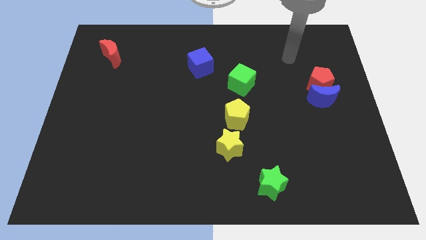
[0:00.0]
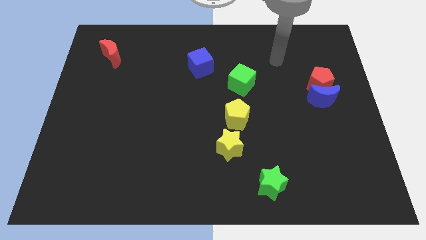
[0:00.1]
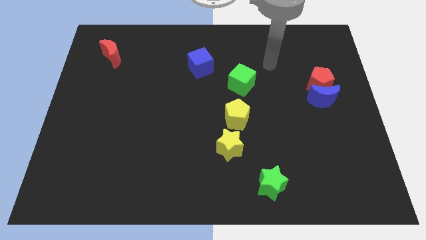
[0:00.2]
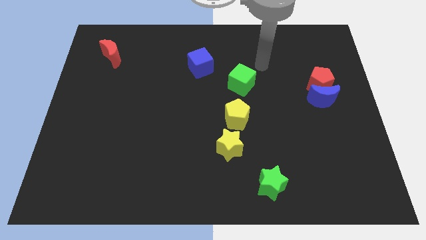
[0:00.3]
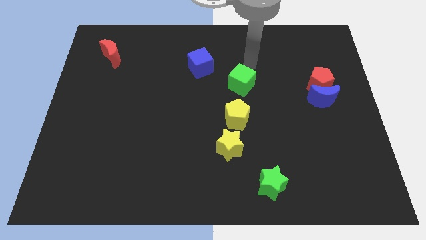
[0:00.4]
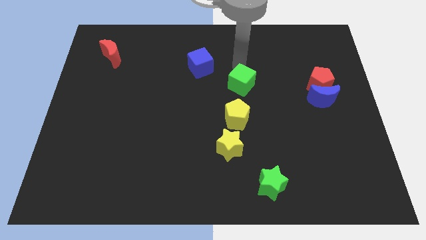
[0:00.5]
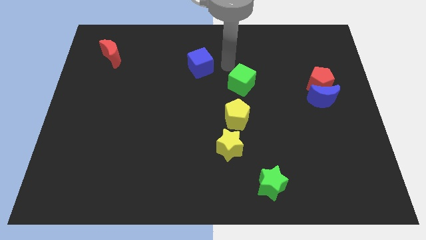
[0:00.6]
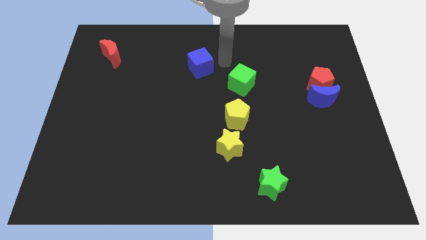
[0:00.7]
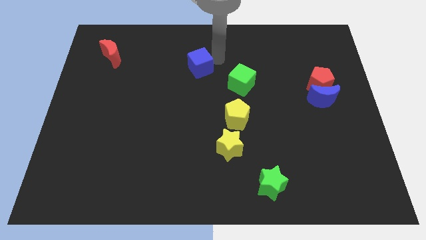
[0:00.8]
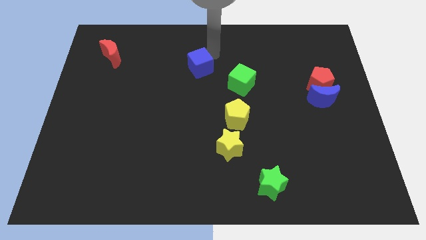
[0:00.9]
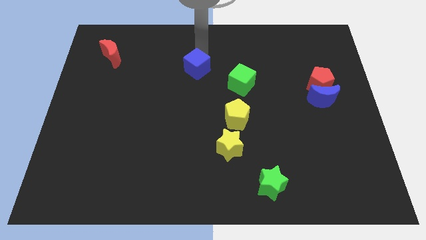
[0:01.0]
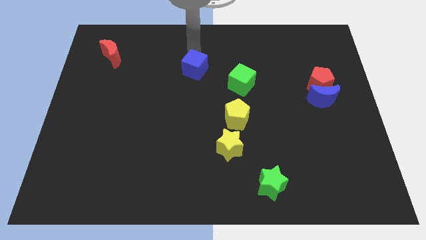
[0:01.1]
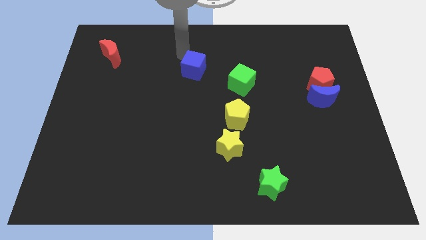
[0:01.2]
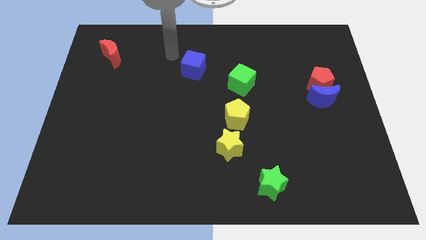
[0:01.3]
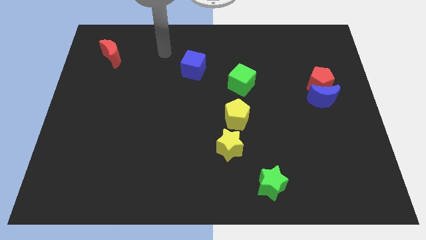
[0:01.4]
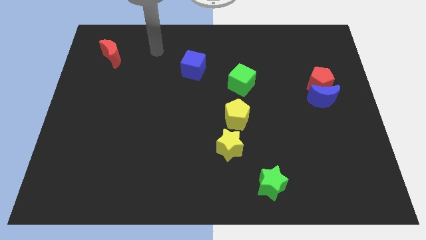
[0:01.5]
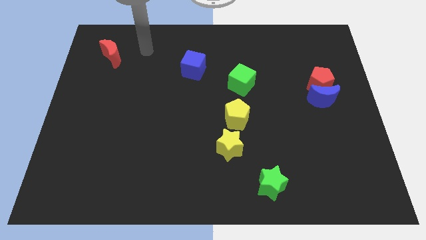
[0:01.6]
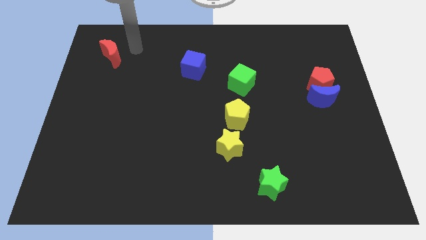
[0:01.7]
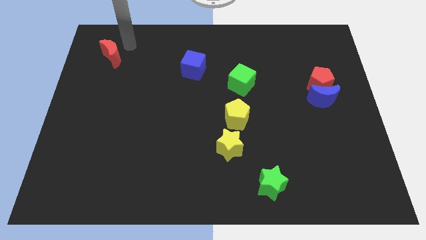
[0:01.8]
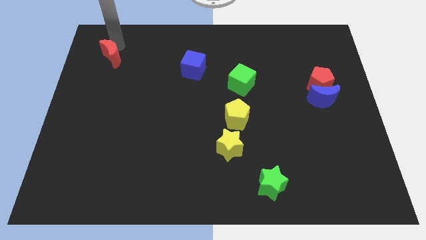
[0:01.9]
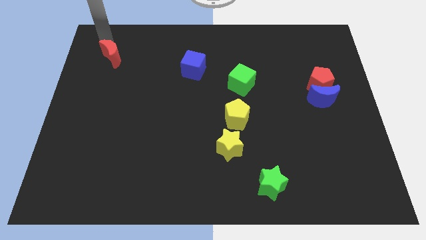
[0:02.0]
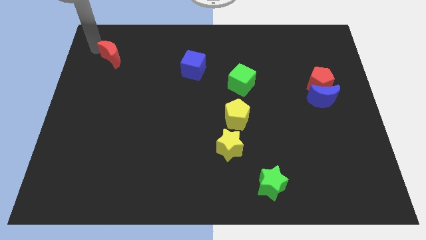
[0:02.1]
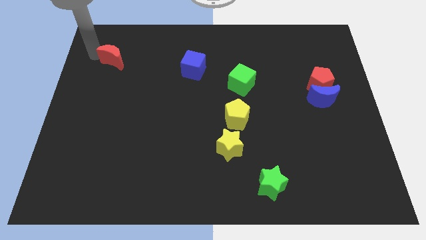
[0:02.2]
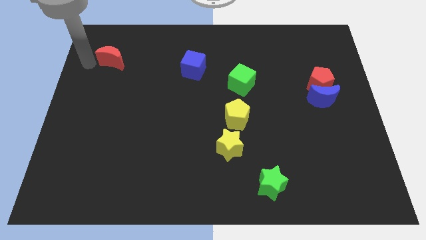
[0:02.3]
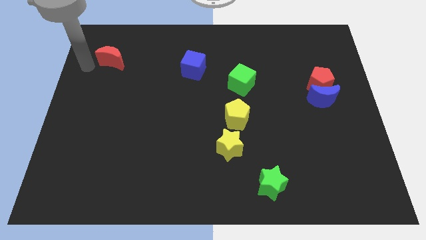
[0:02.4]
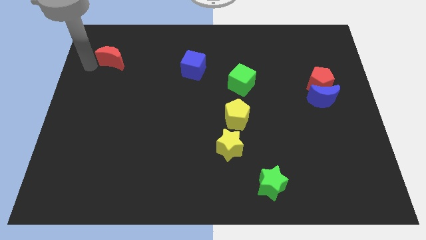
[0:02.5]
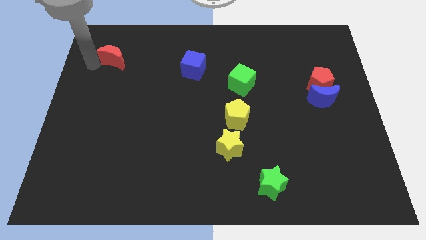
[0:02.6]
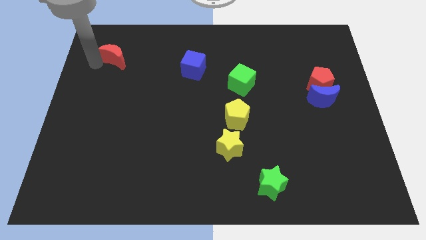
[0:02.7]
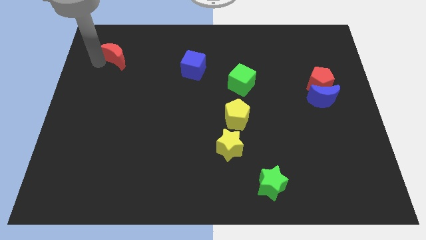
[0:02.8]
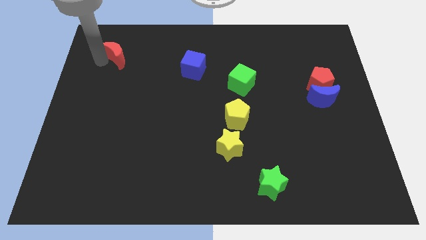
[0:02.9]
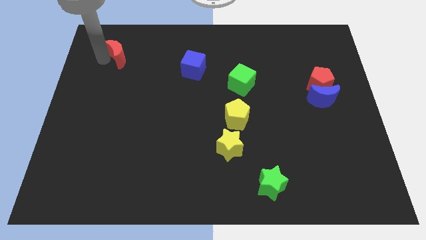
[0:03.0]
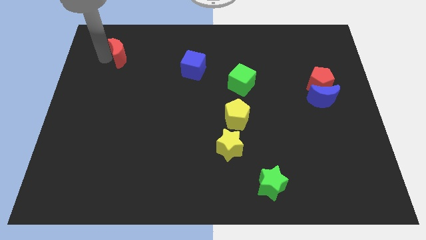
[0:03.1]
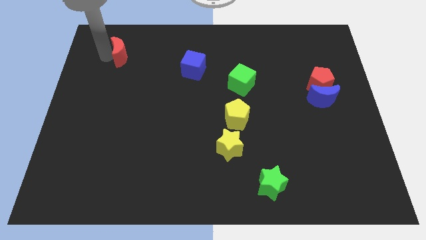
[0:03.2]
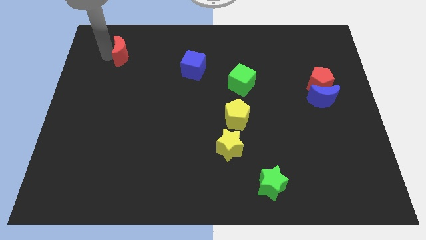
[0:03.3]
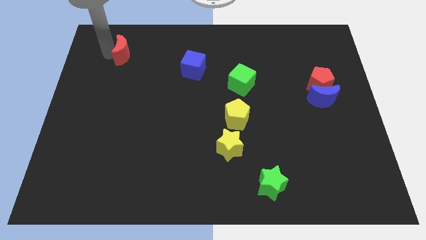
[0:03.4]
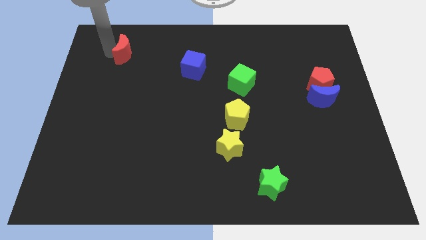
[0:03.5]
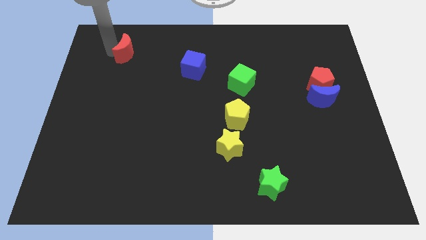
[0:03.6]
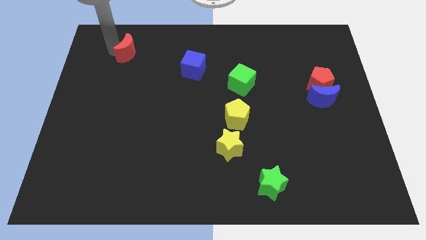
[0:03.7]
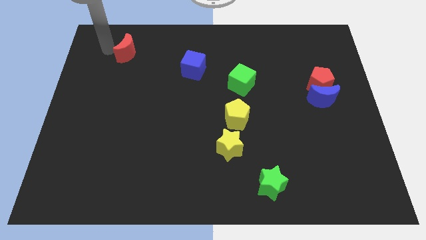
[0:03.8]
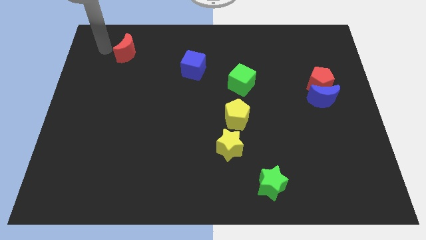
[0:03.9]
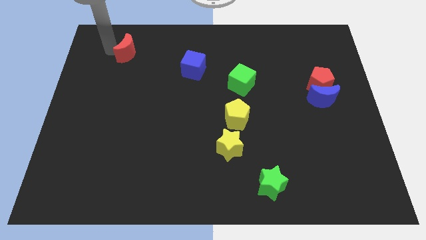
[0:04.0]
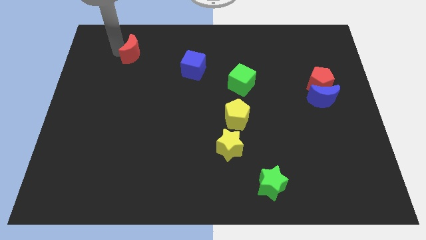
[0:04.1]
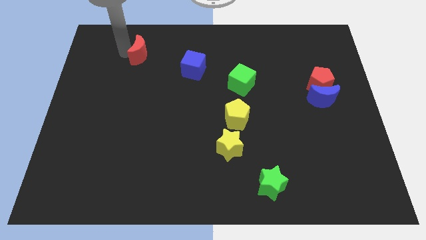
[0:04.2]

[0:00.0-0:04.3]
slightly push the red moon right

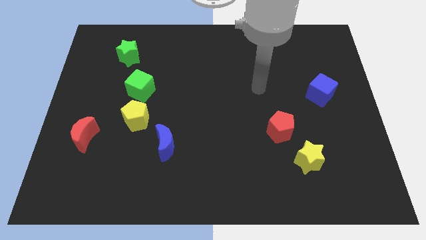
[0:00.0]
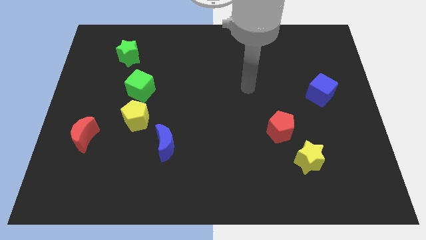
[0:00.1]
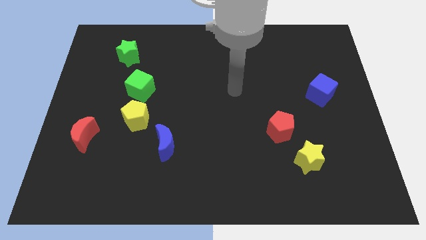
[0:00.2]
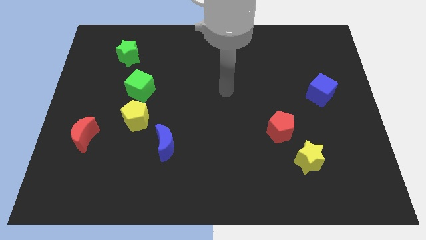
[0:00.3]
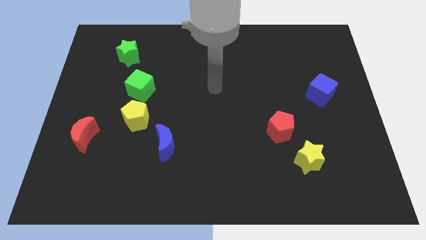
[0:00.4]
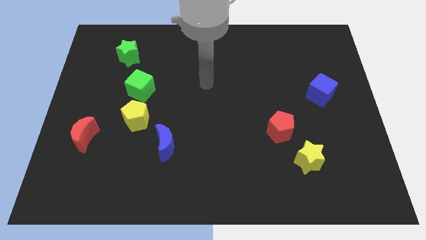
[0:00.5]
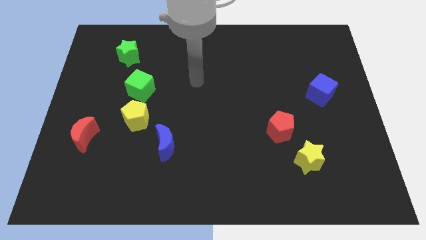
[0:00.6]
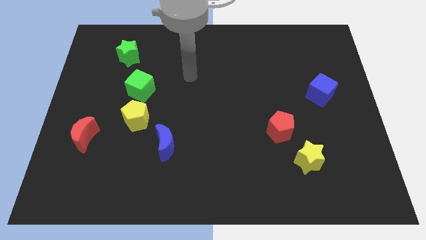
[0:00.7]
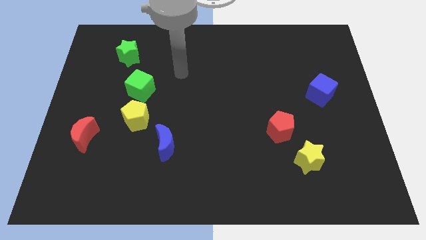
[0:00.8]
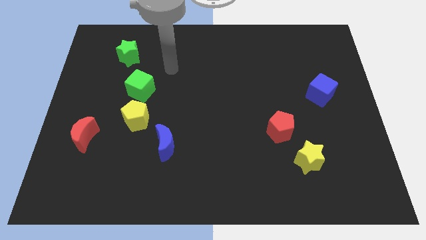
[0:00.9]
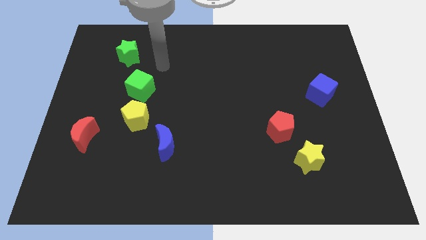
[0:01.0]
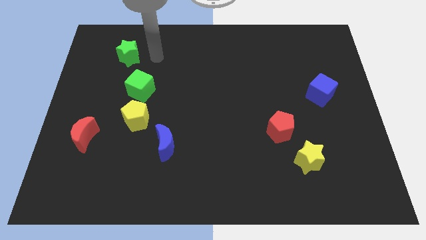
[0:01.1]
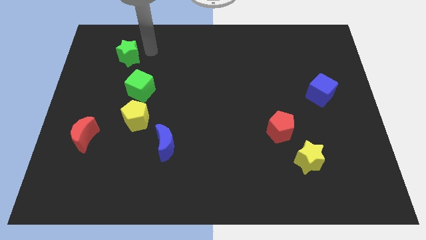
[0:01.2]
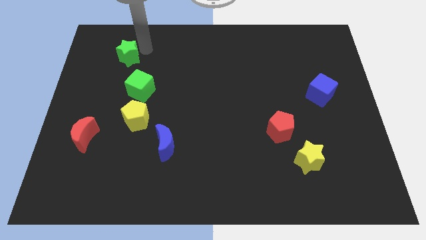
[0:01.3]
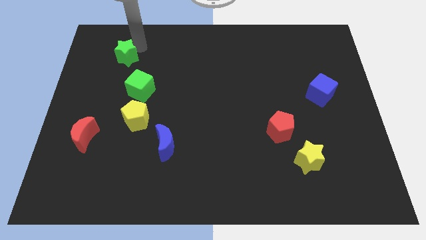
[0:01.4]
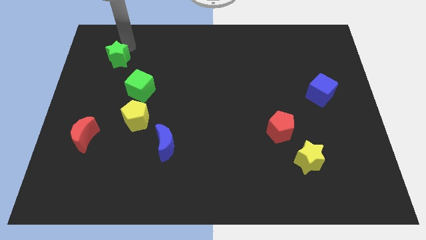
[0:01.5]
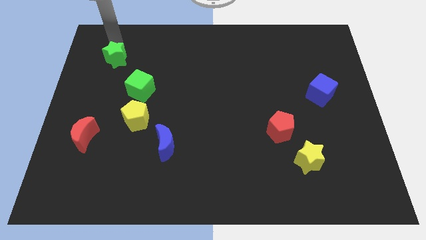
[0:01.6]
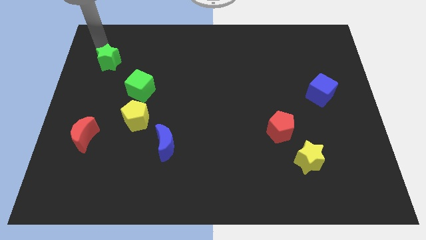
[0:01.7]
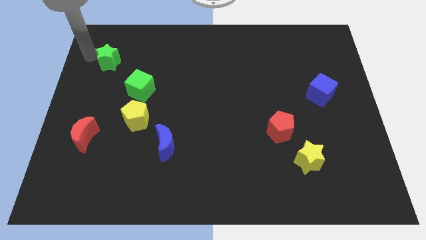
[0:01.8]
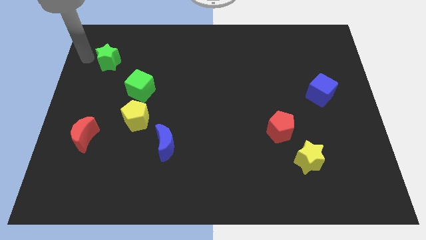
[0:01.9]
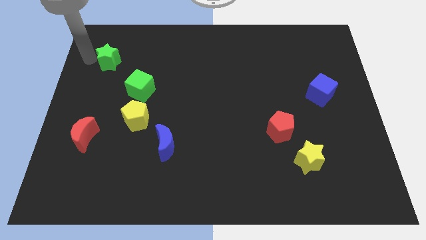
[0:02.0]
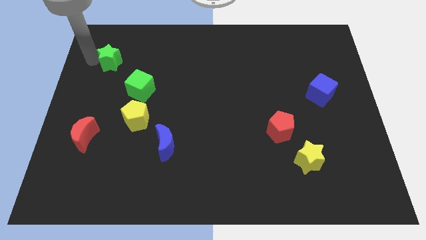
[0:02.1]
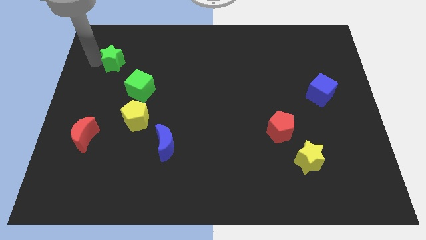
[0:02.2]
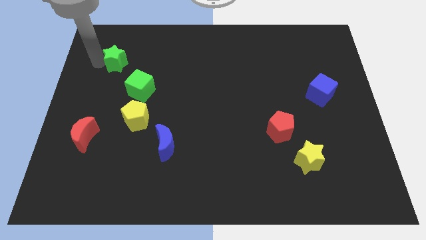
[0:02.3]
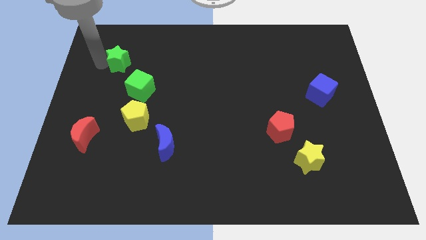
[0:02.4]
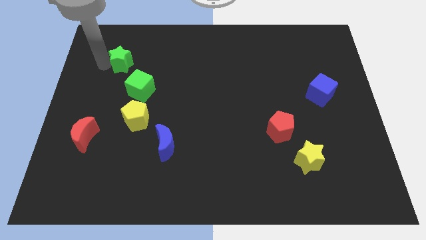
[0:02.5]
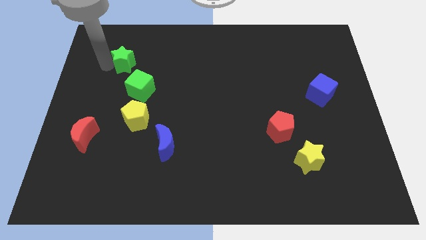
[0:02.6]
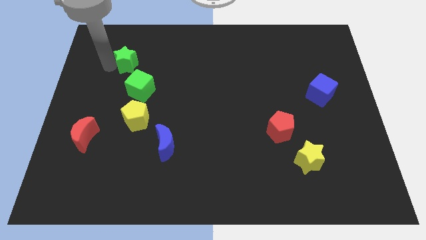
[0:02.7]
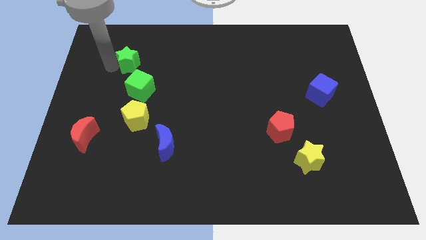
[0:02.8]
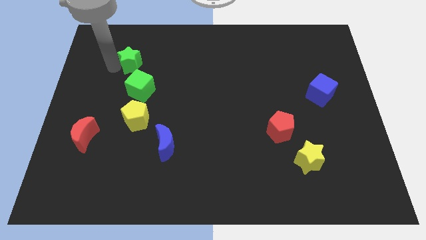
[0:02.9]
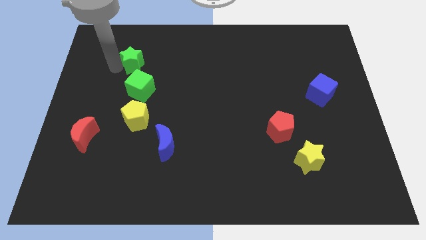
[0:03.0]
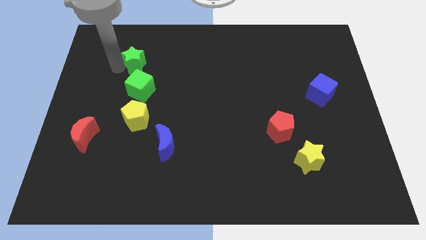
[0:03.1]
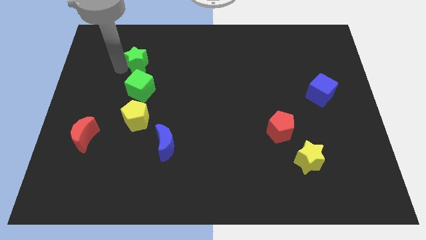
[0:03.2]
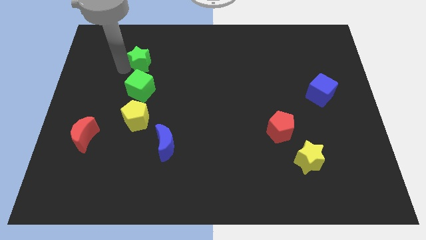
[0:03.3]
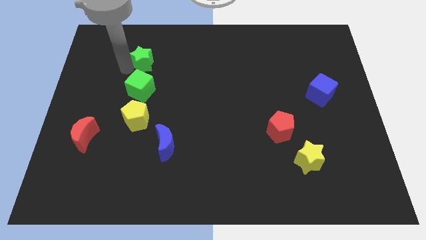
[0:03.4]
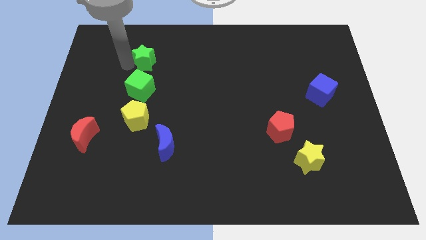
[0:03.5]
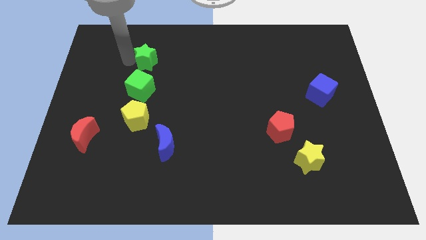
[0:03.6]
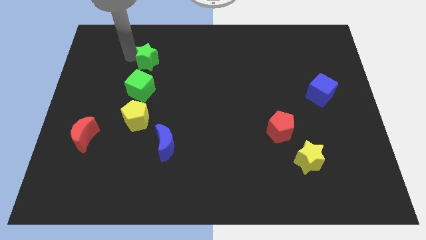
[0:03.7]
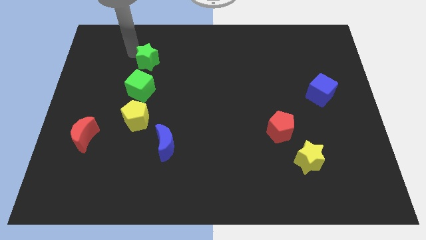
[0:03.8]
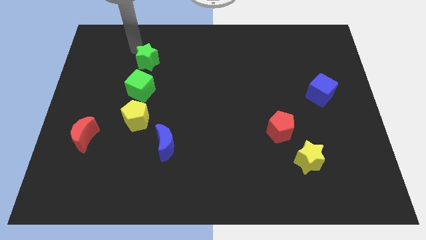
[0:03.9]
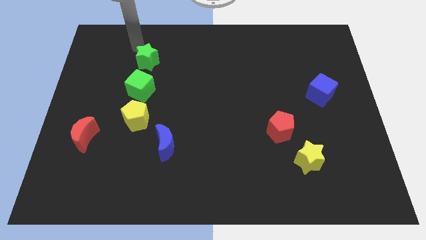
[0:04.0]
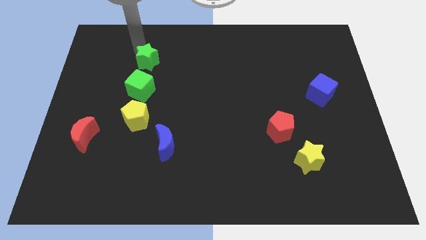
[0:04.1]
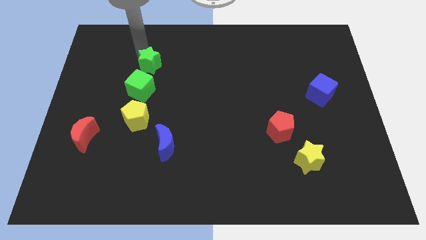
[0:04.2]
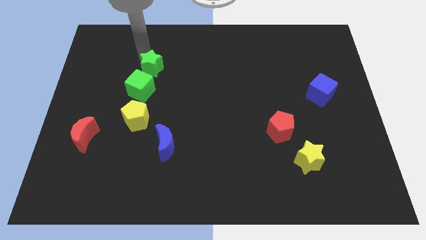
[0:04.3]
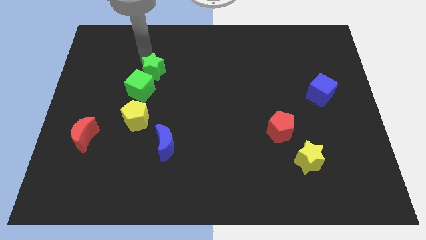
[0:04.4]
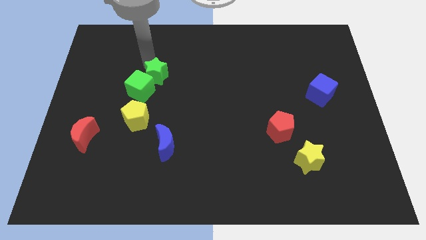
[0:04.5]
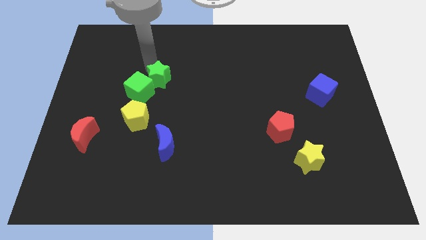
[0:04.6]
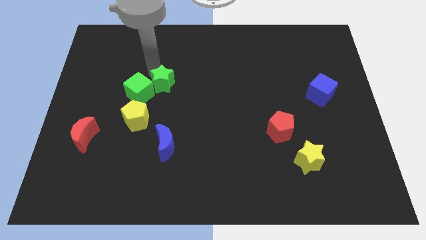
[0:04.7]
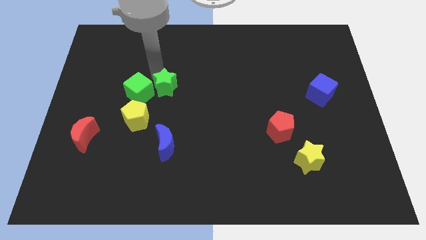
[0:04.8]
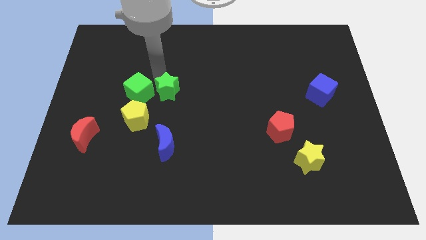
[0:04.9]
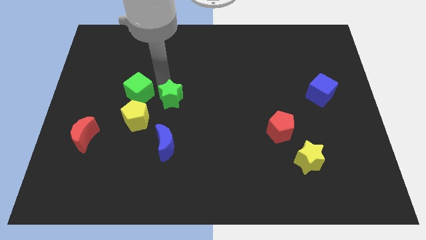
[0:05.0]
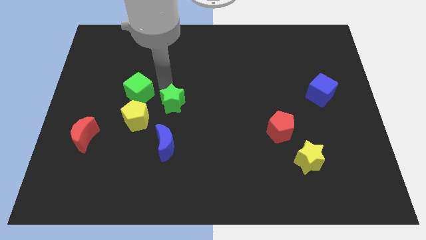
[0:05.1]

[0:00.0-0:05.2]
push the green star down and right
